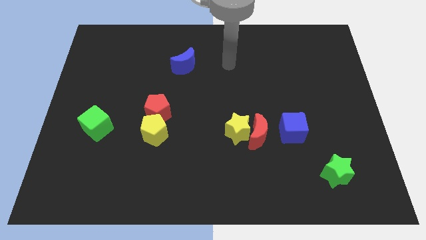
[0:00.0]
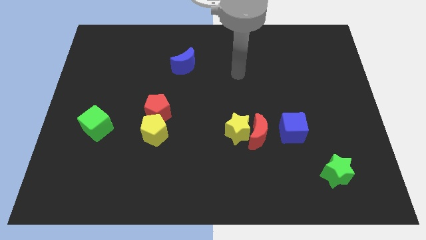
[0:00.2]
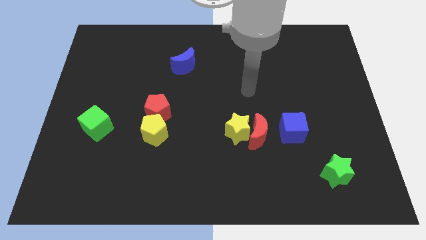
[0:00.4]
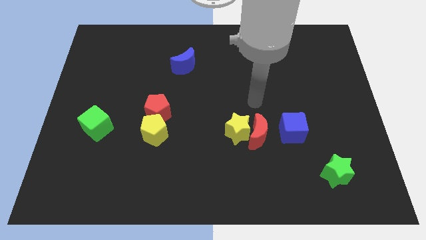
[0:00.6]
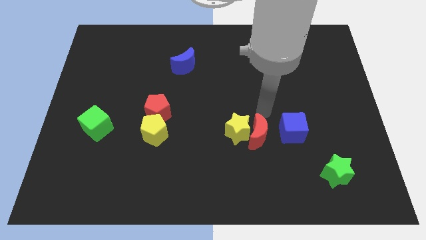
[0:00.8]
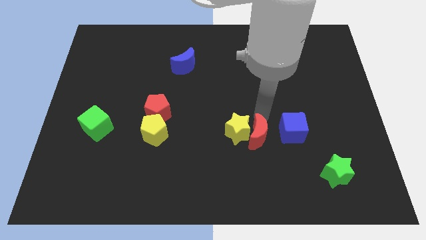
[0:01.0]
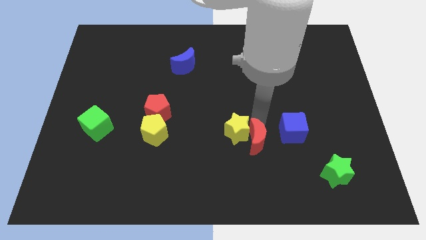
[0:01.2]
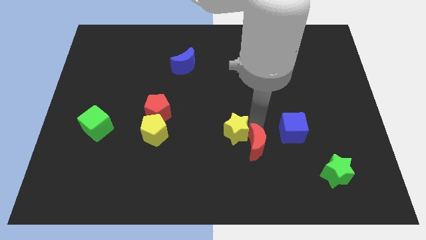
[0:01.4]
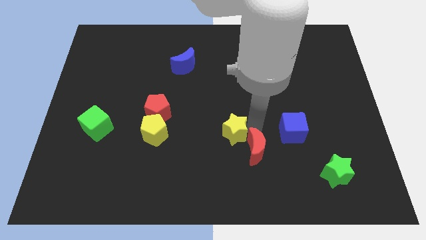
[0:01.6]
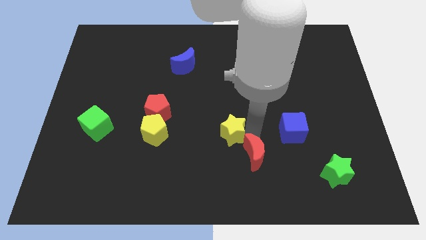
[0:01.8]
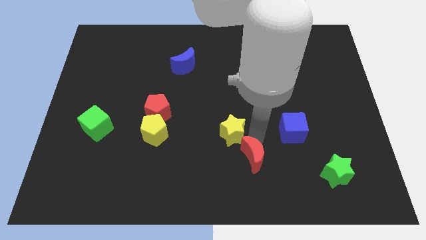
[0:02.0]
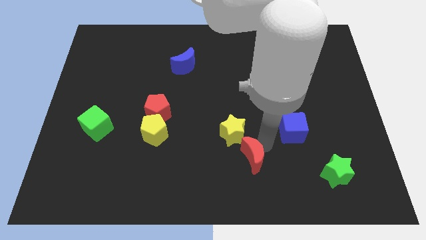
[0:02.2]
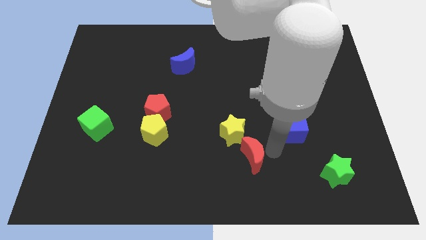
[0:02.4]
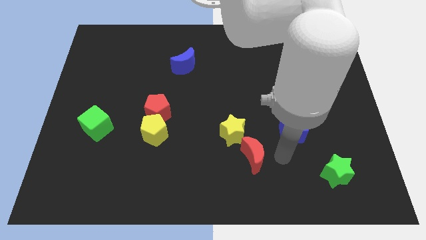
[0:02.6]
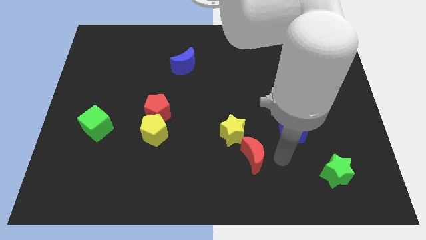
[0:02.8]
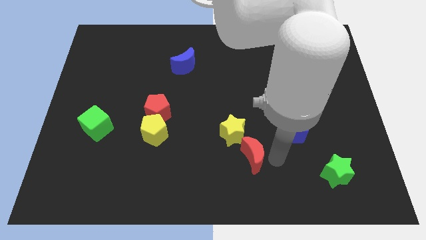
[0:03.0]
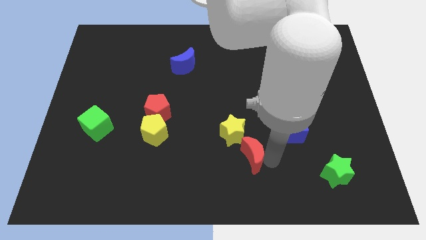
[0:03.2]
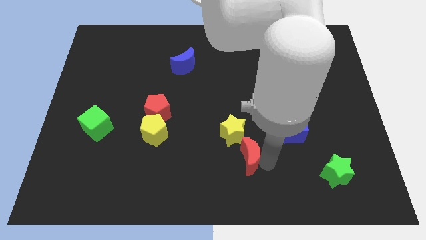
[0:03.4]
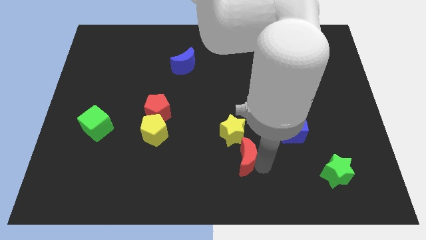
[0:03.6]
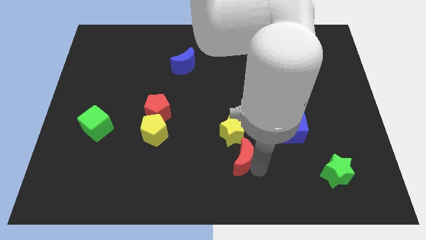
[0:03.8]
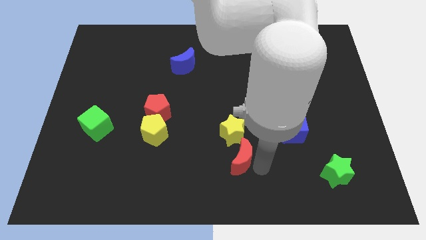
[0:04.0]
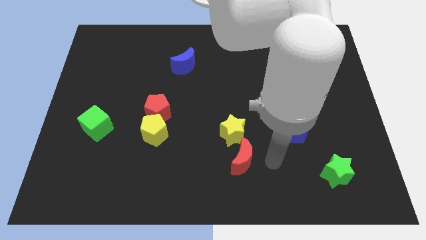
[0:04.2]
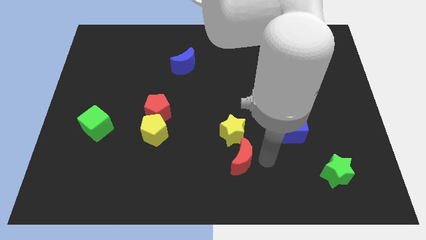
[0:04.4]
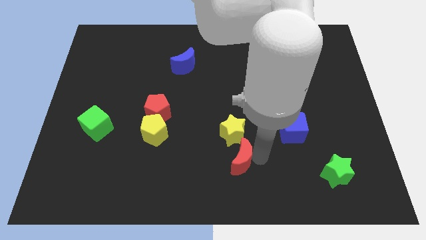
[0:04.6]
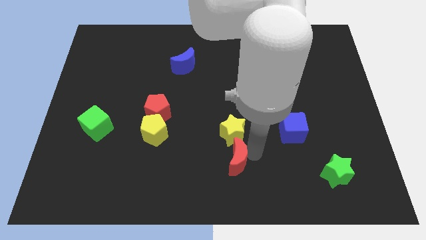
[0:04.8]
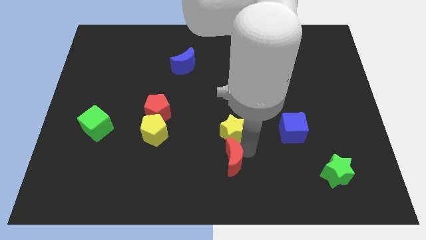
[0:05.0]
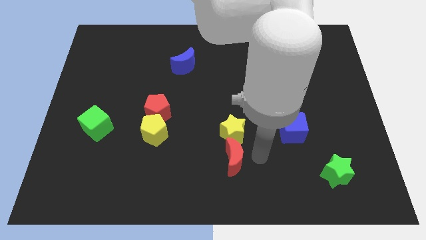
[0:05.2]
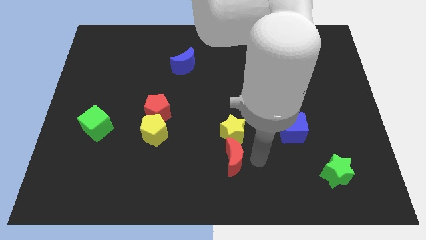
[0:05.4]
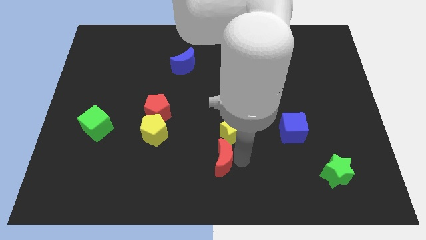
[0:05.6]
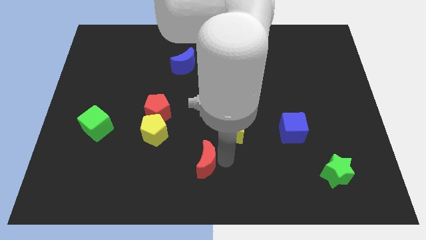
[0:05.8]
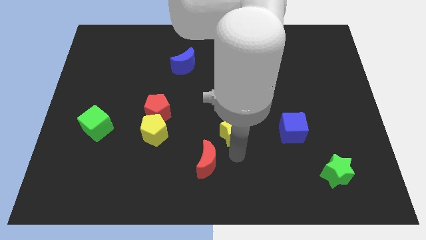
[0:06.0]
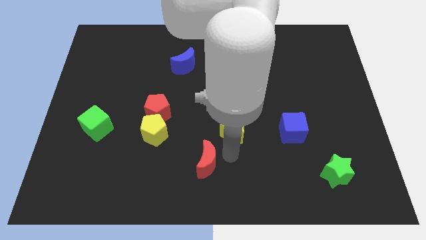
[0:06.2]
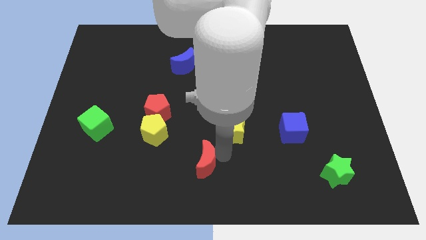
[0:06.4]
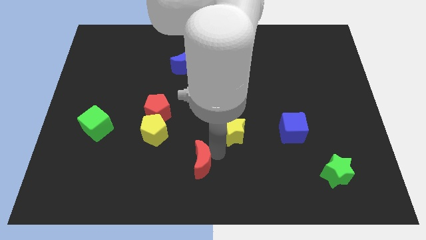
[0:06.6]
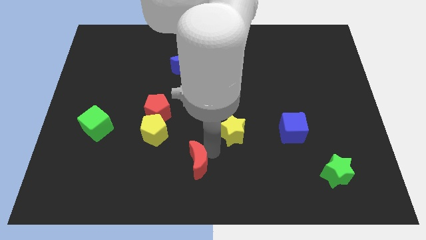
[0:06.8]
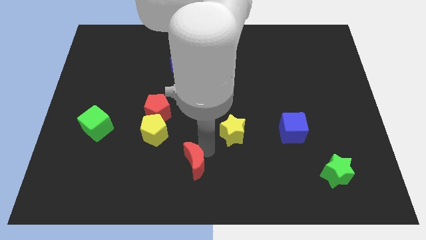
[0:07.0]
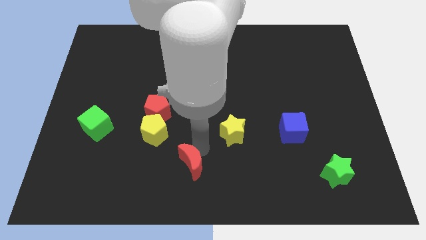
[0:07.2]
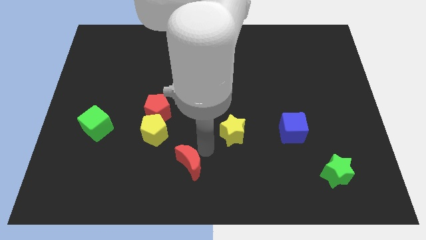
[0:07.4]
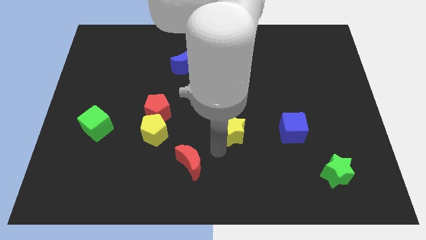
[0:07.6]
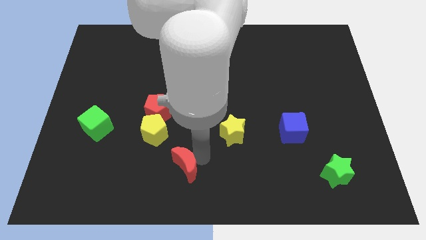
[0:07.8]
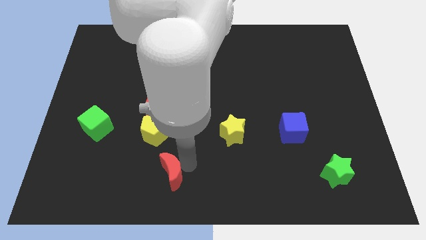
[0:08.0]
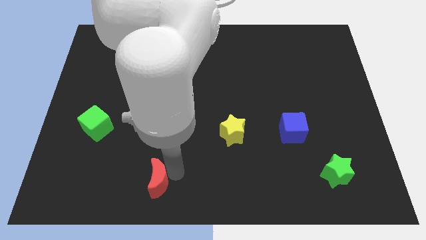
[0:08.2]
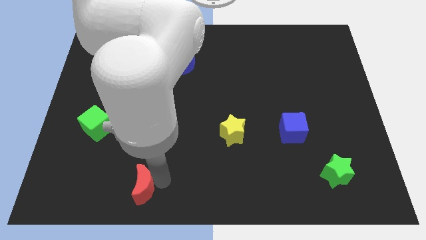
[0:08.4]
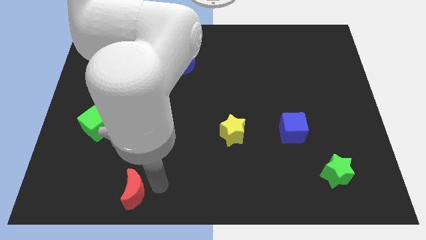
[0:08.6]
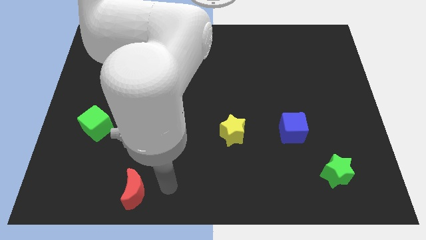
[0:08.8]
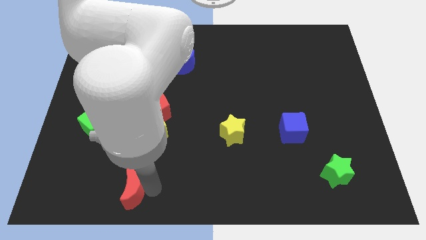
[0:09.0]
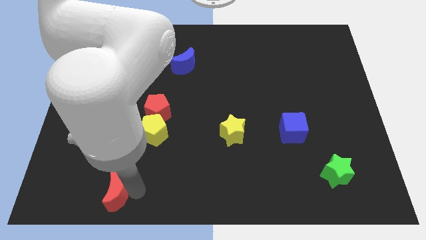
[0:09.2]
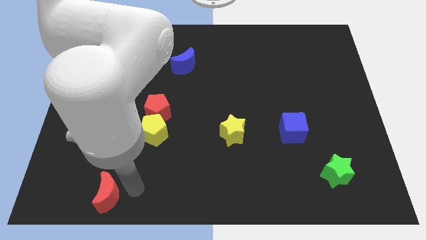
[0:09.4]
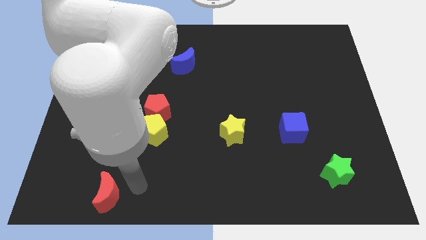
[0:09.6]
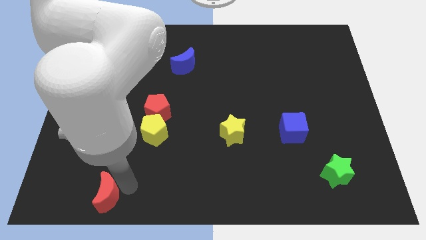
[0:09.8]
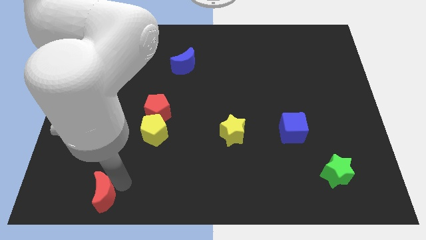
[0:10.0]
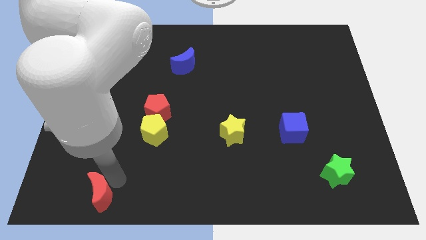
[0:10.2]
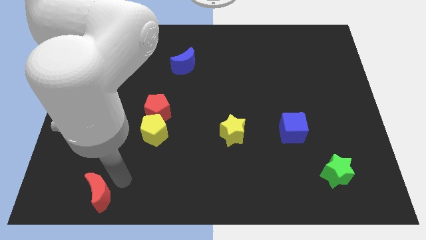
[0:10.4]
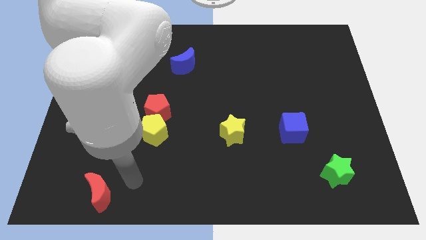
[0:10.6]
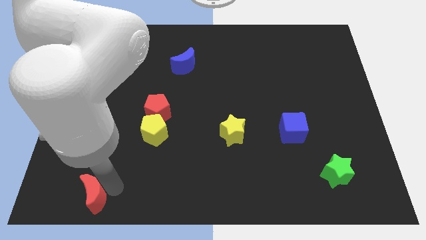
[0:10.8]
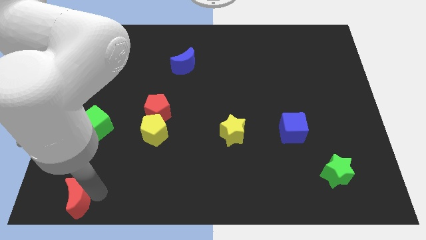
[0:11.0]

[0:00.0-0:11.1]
slide the red moon to the lower left corner

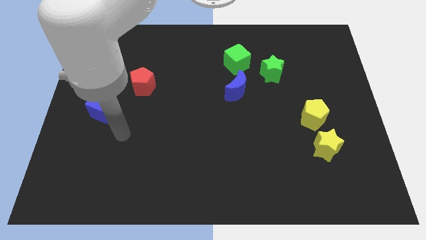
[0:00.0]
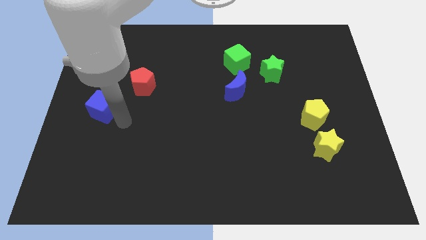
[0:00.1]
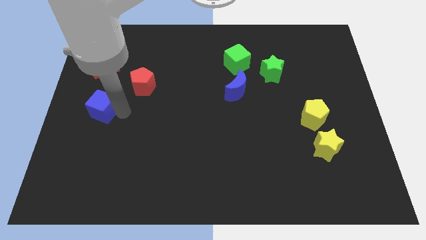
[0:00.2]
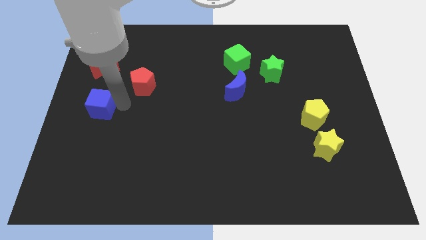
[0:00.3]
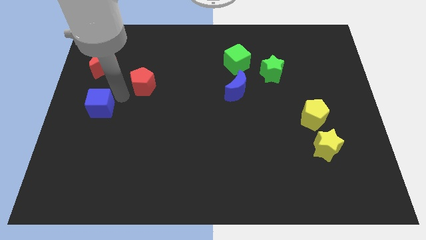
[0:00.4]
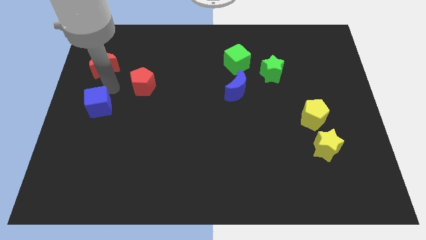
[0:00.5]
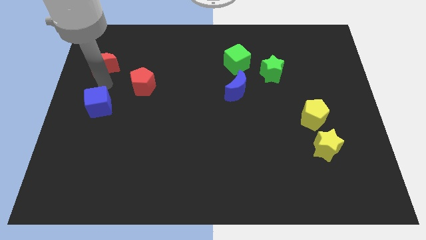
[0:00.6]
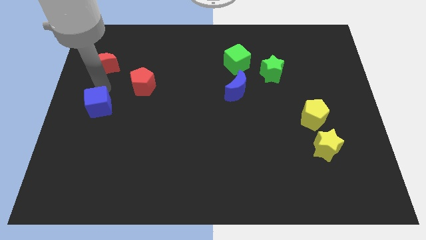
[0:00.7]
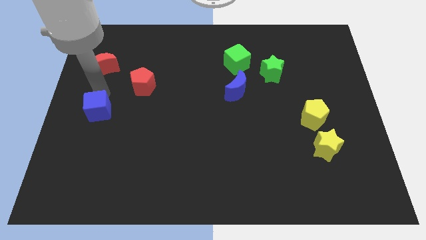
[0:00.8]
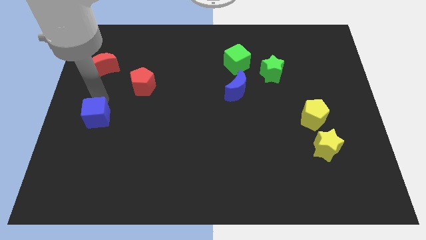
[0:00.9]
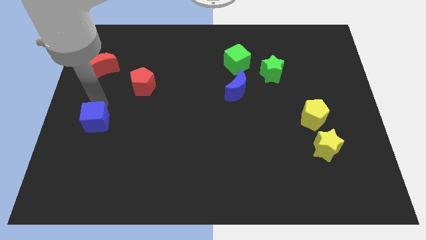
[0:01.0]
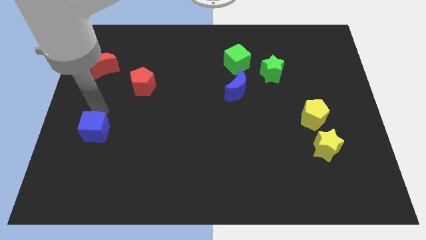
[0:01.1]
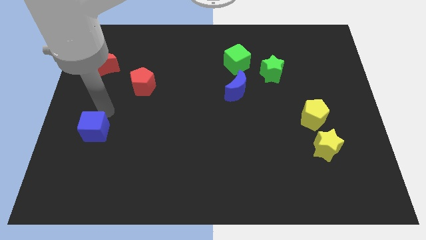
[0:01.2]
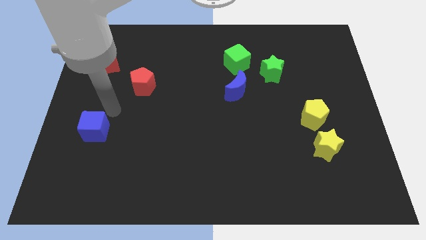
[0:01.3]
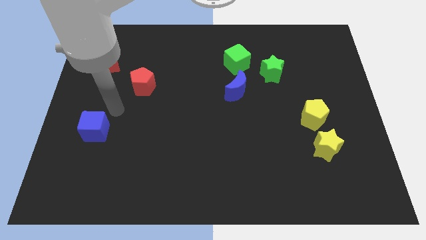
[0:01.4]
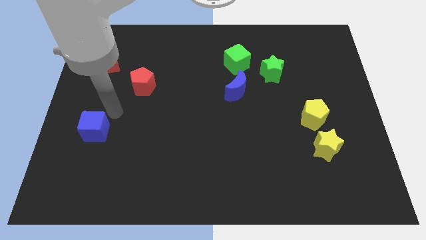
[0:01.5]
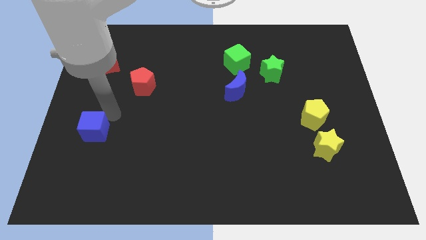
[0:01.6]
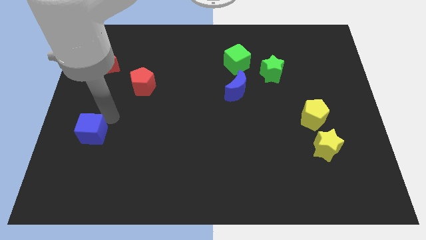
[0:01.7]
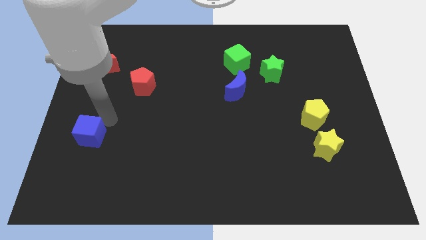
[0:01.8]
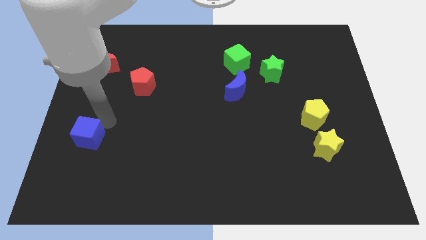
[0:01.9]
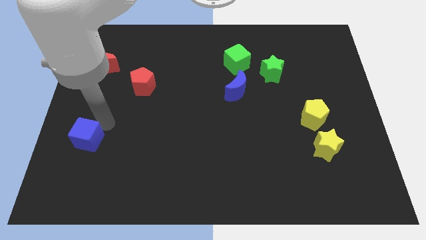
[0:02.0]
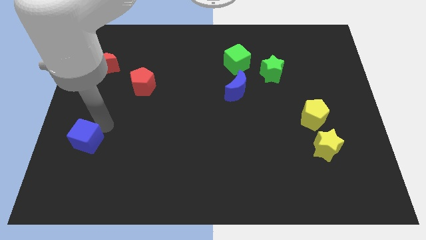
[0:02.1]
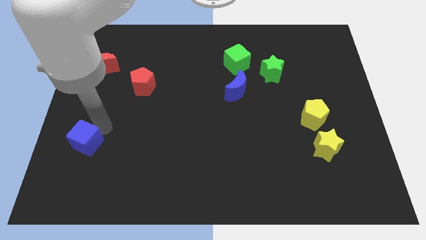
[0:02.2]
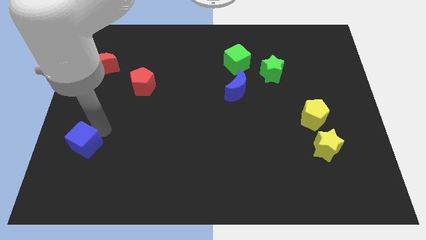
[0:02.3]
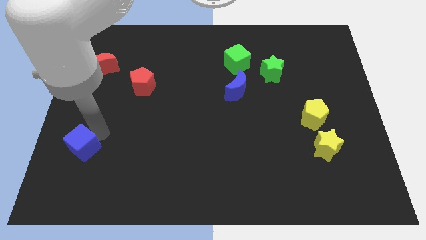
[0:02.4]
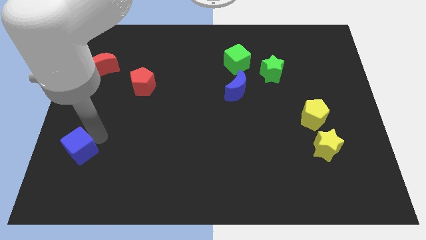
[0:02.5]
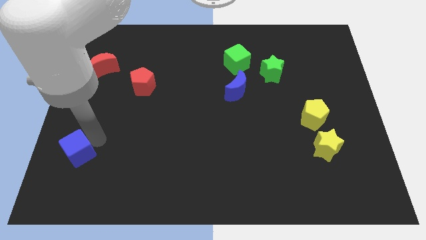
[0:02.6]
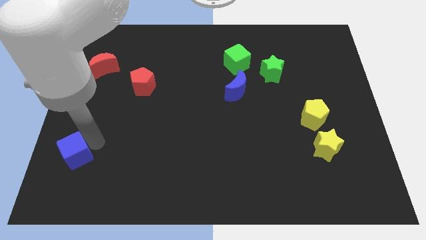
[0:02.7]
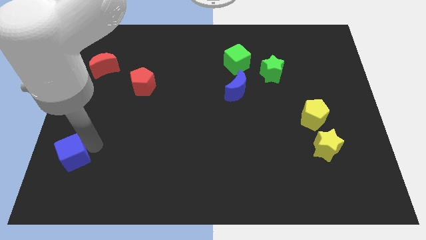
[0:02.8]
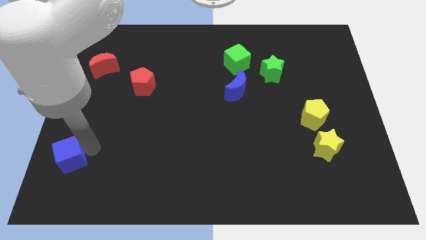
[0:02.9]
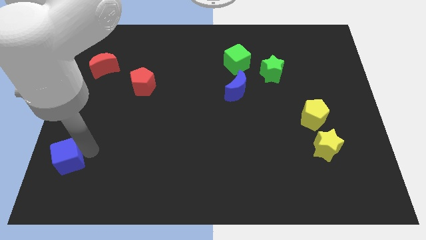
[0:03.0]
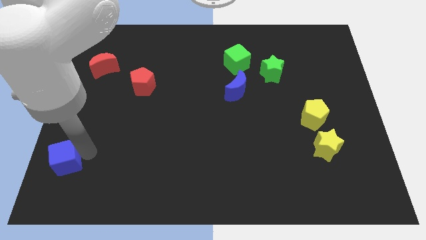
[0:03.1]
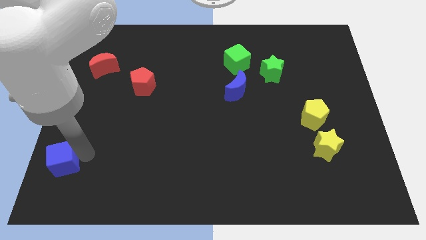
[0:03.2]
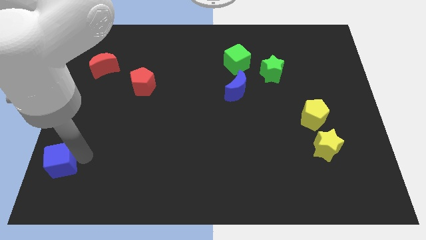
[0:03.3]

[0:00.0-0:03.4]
slide the blue cube to the bottom left corner
